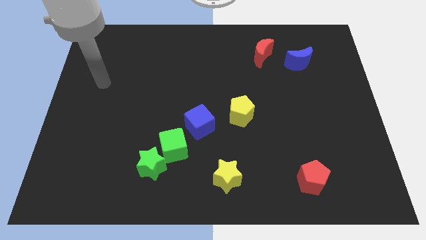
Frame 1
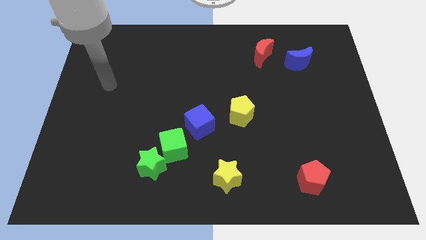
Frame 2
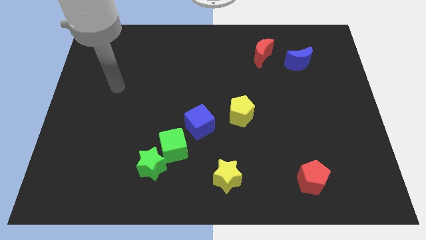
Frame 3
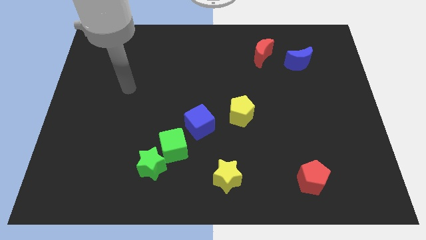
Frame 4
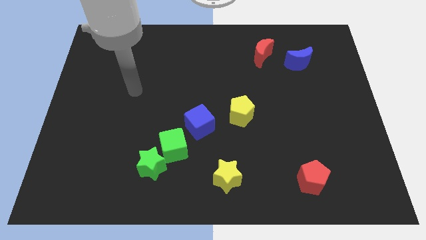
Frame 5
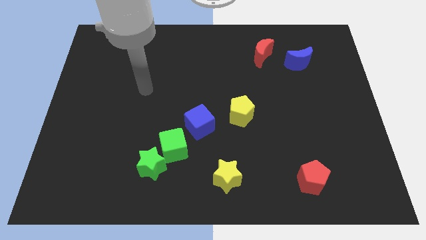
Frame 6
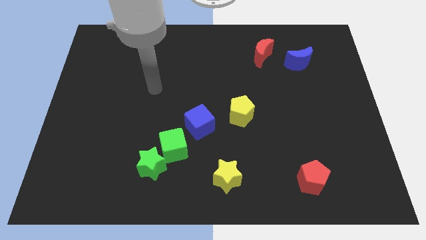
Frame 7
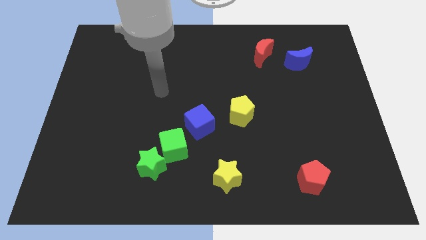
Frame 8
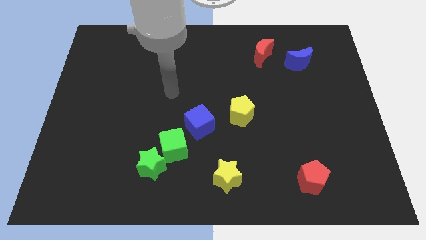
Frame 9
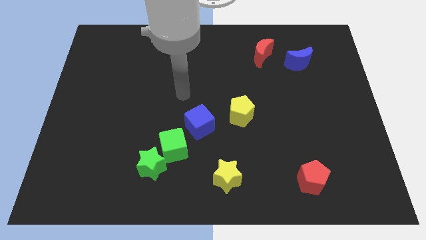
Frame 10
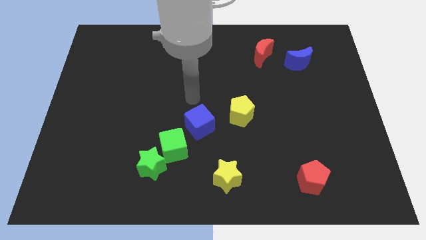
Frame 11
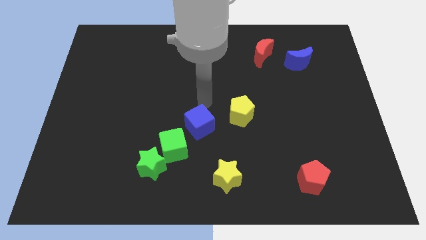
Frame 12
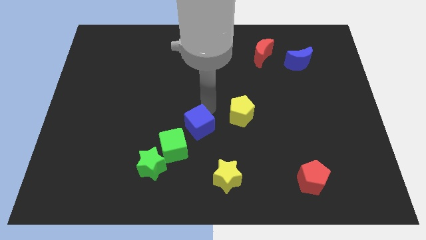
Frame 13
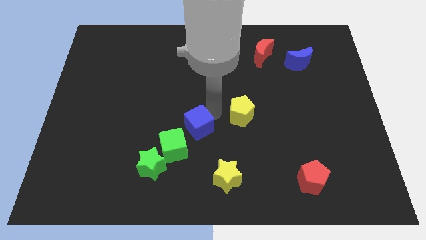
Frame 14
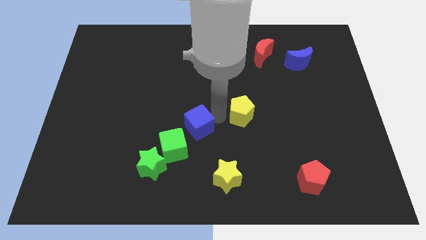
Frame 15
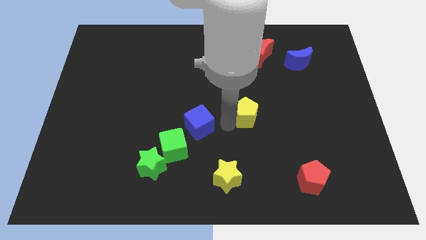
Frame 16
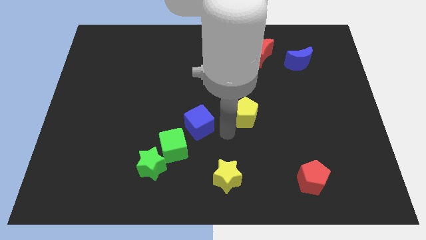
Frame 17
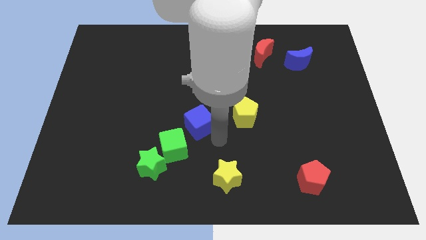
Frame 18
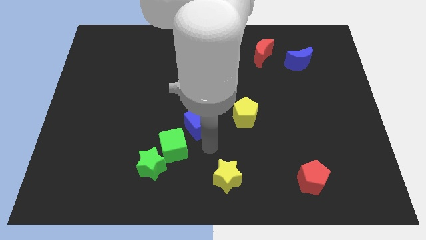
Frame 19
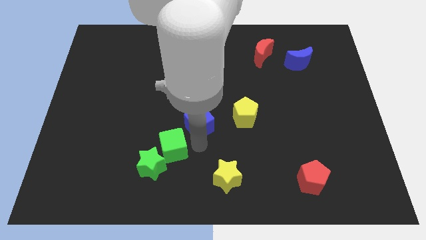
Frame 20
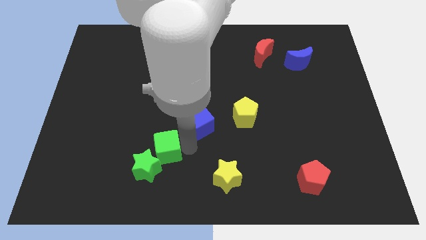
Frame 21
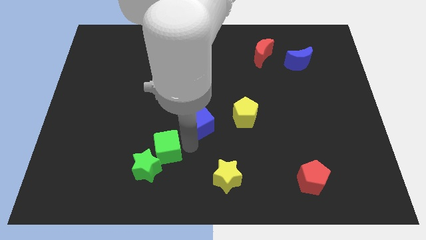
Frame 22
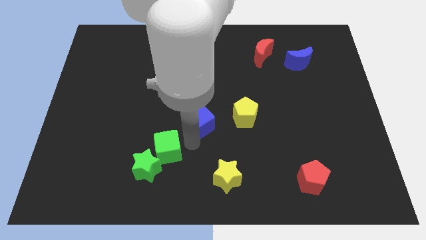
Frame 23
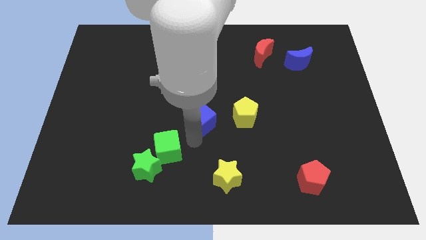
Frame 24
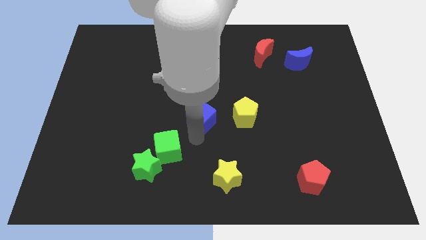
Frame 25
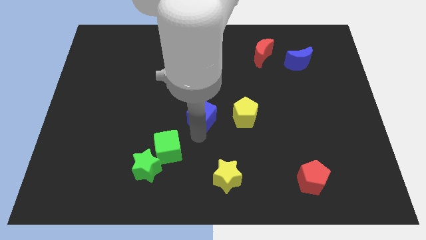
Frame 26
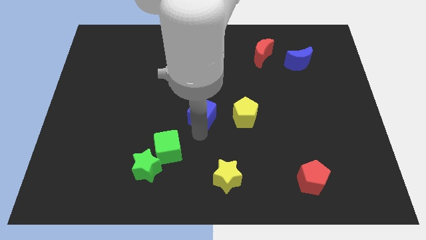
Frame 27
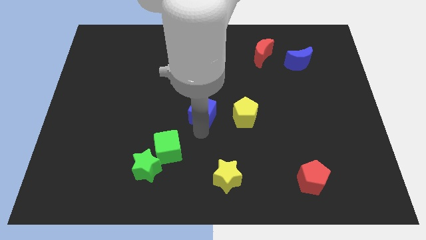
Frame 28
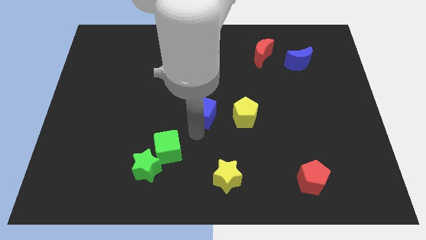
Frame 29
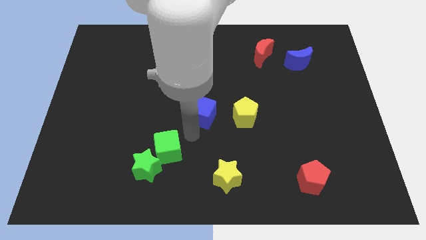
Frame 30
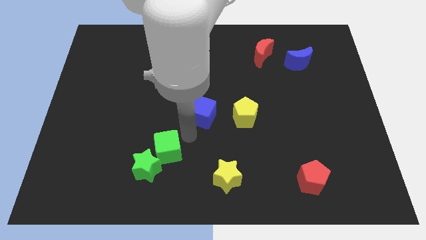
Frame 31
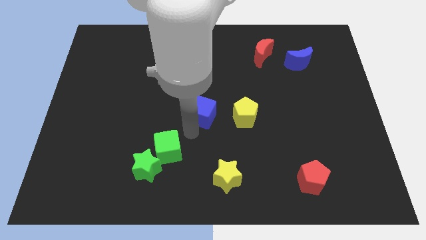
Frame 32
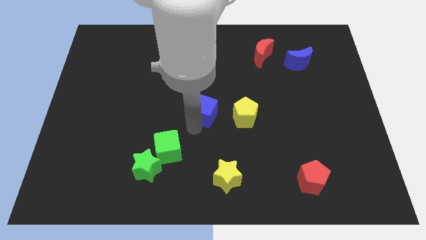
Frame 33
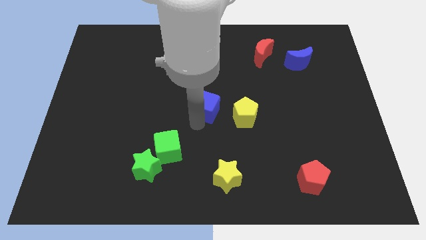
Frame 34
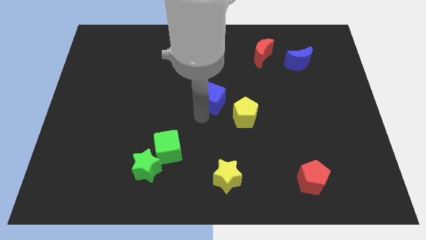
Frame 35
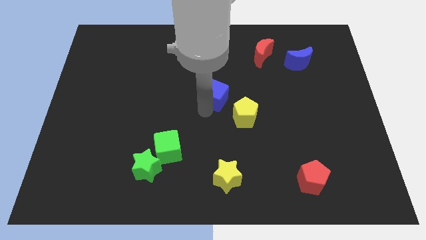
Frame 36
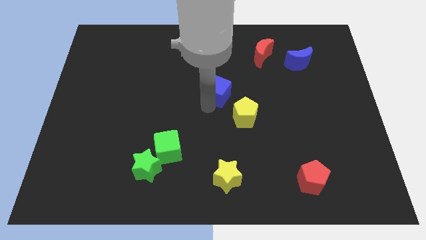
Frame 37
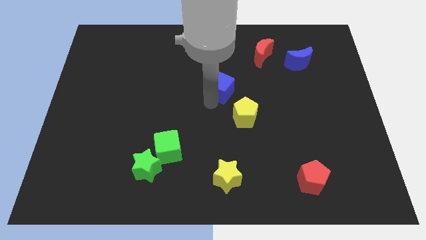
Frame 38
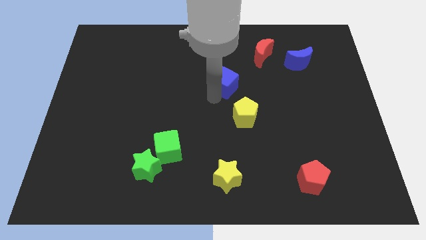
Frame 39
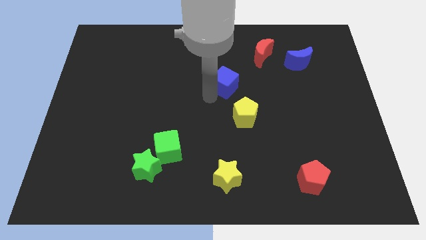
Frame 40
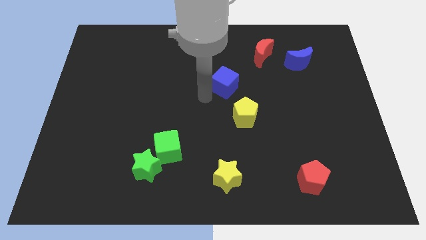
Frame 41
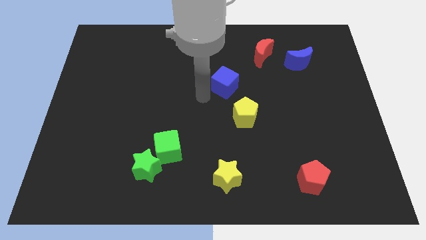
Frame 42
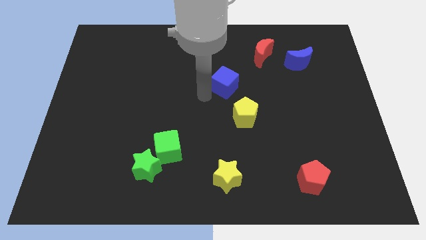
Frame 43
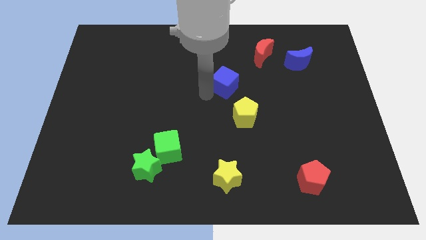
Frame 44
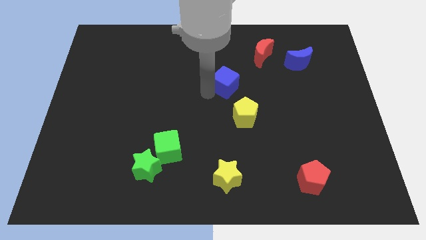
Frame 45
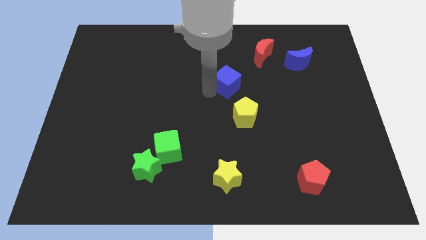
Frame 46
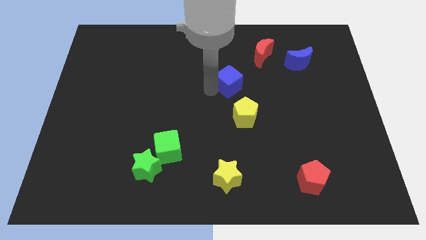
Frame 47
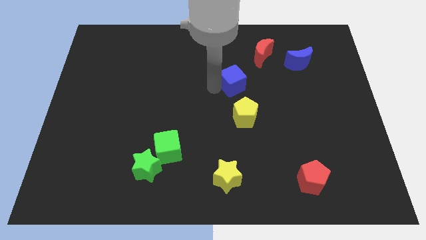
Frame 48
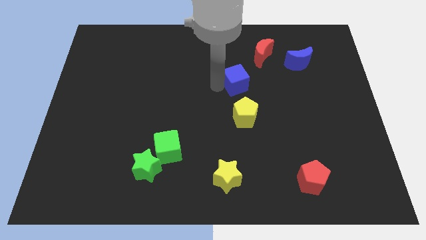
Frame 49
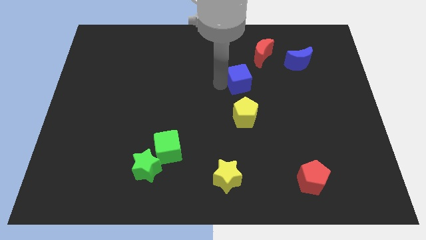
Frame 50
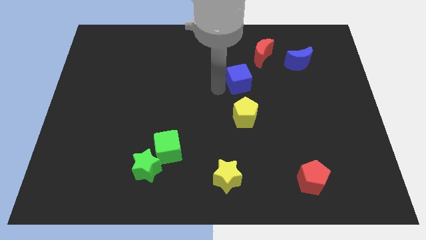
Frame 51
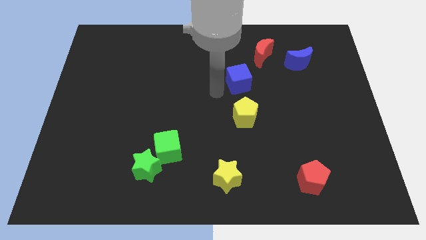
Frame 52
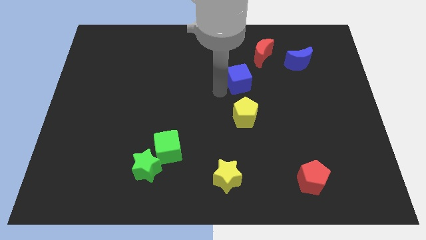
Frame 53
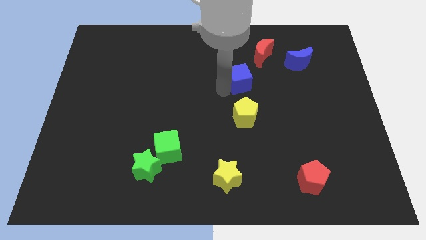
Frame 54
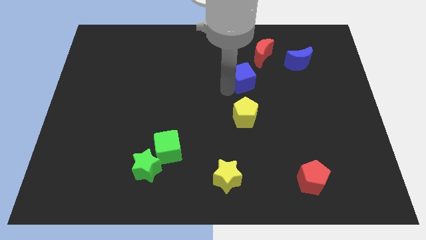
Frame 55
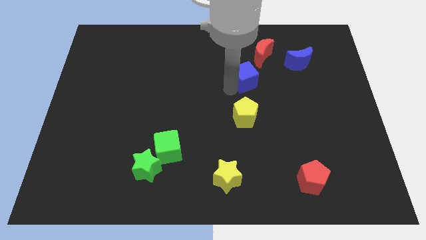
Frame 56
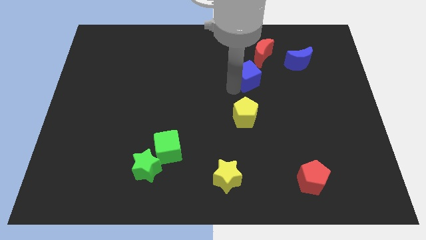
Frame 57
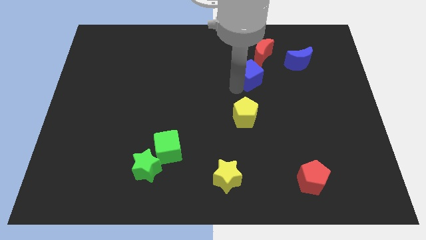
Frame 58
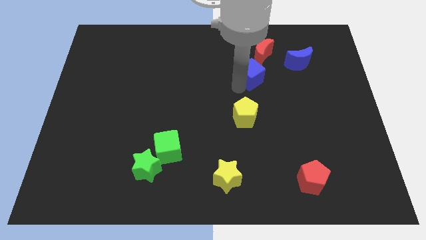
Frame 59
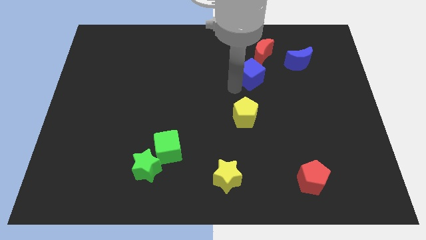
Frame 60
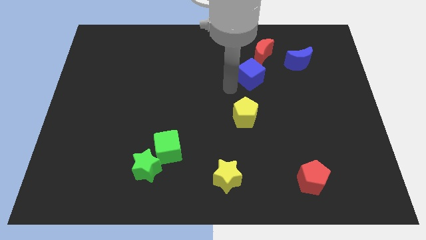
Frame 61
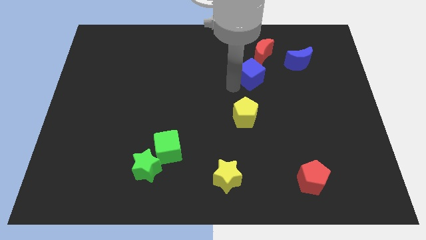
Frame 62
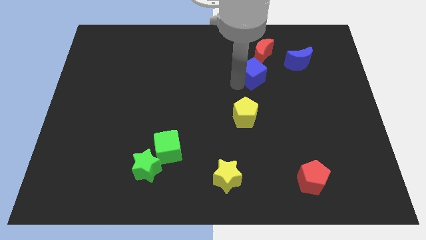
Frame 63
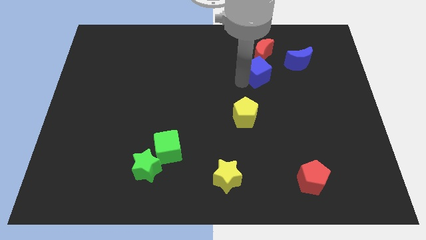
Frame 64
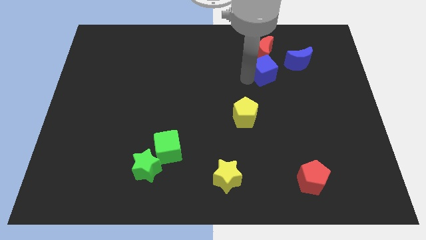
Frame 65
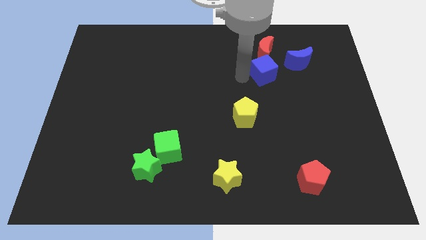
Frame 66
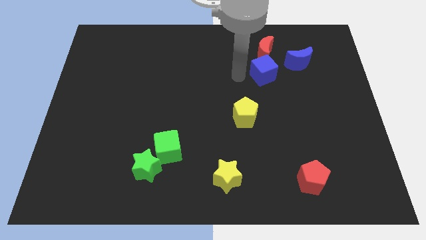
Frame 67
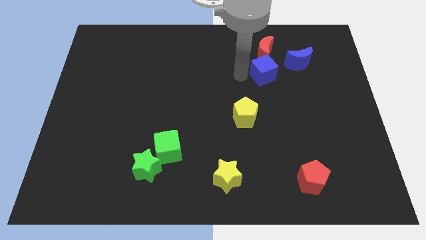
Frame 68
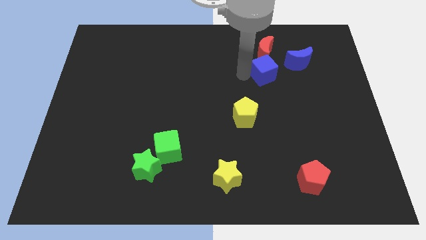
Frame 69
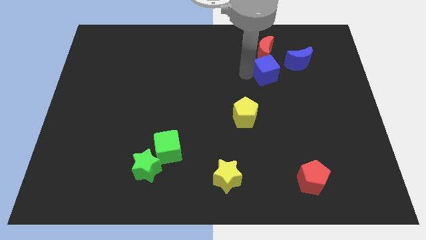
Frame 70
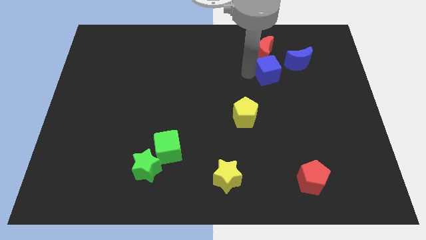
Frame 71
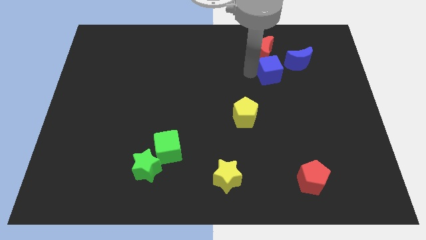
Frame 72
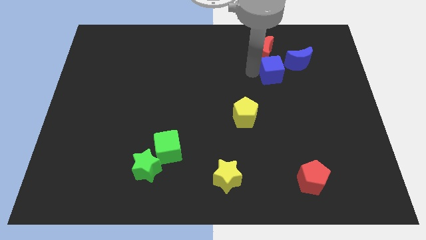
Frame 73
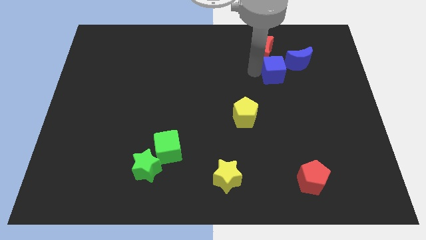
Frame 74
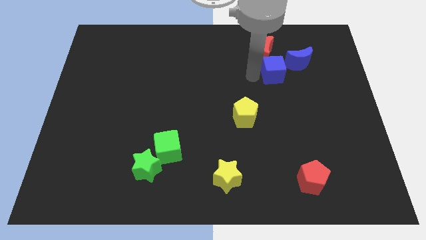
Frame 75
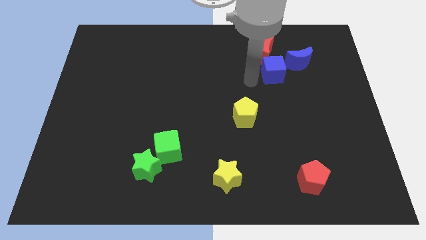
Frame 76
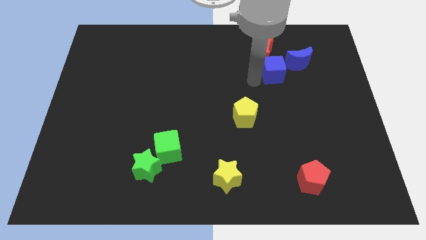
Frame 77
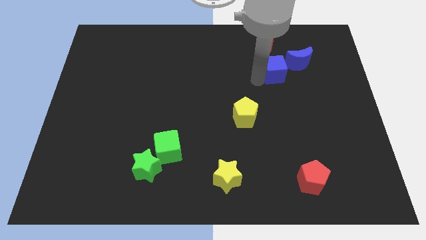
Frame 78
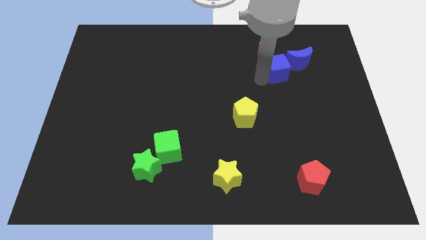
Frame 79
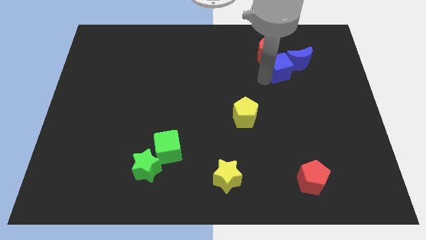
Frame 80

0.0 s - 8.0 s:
move the blue cube close to the blue moon
